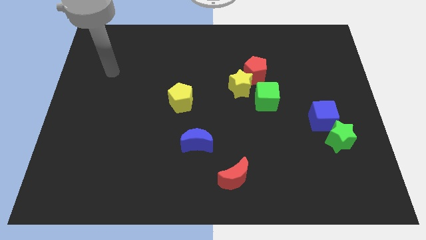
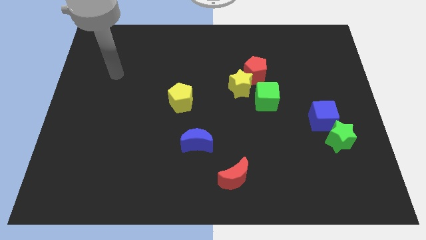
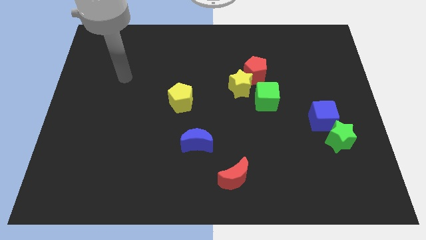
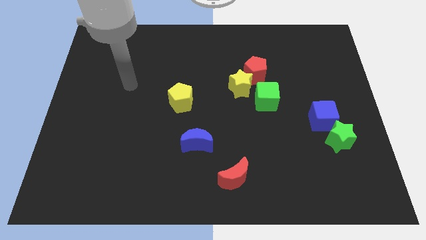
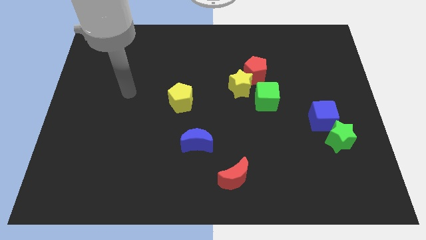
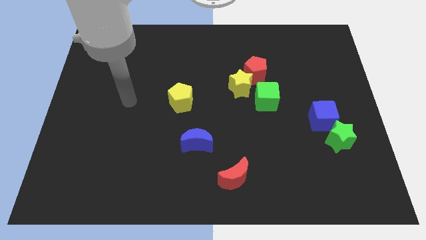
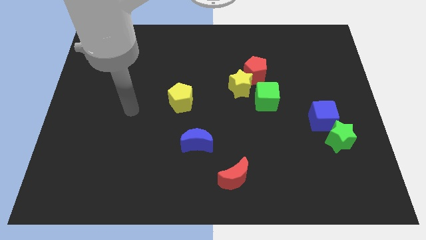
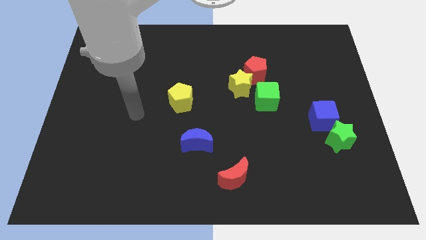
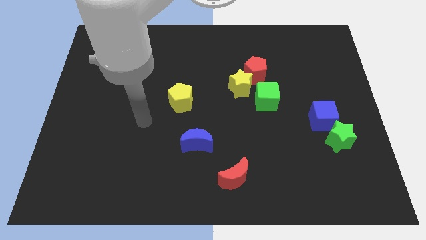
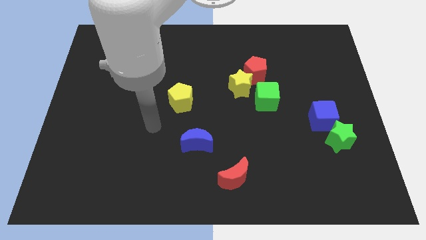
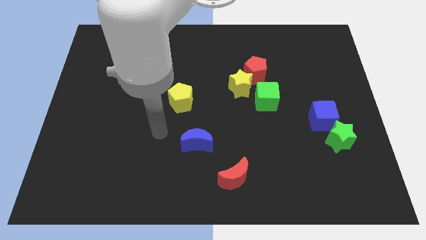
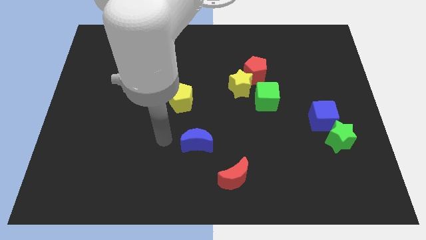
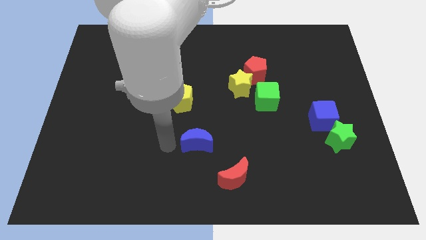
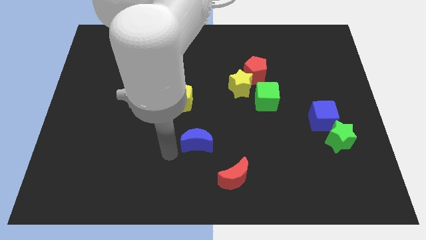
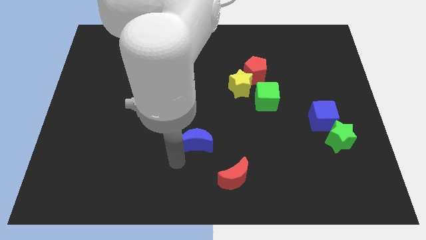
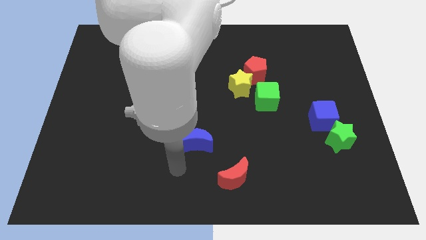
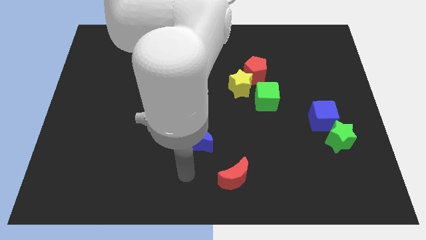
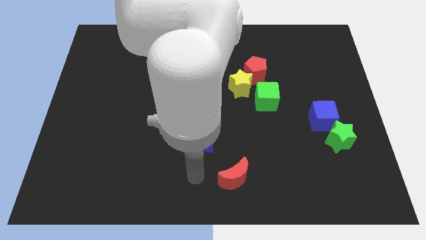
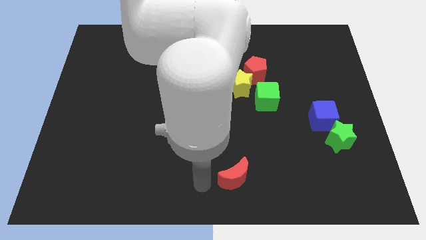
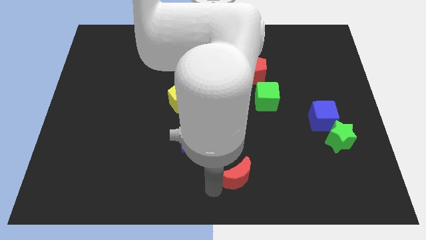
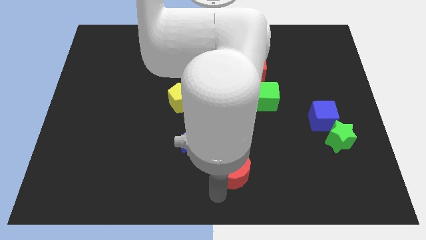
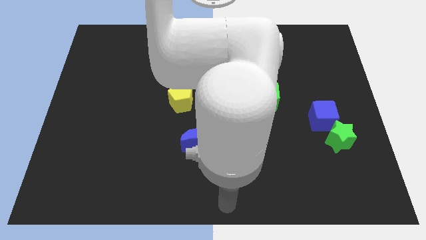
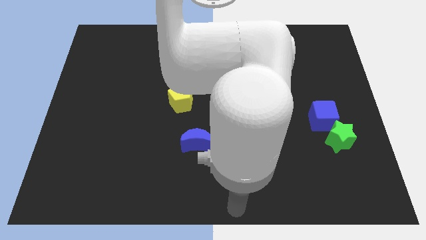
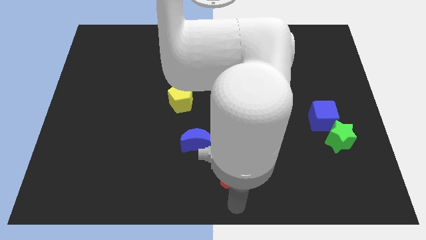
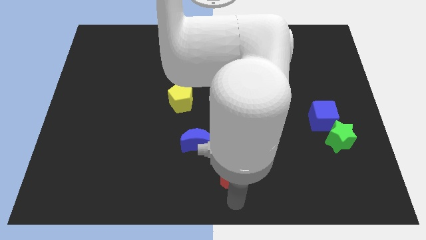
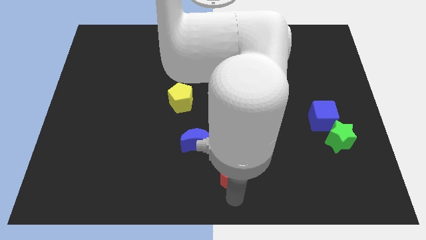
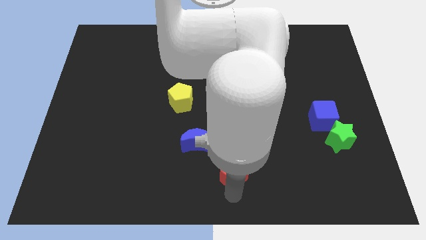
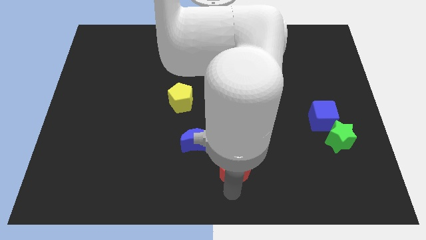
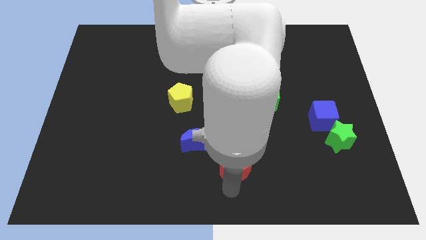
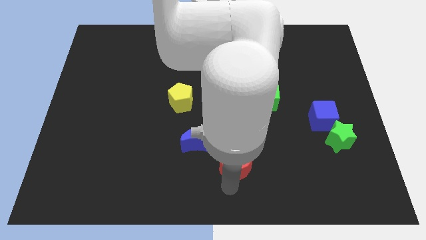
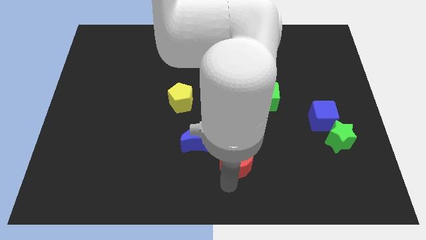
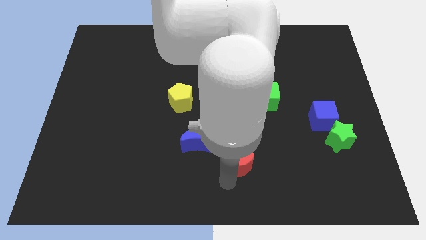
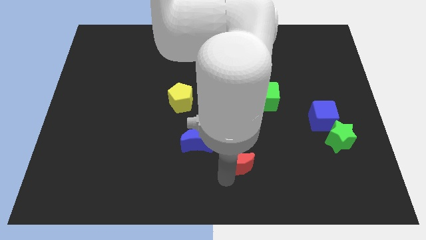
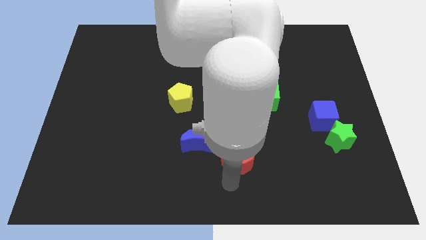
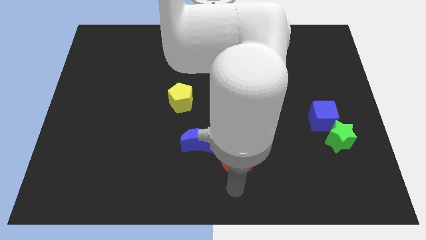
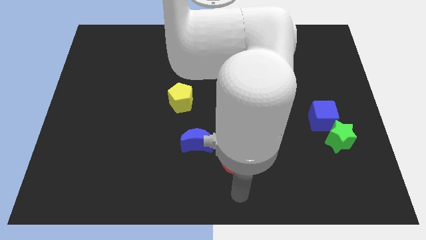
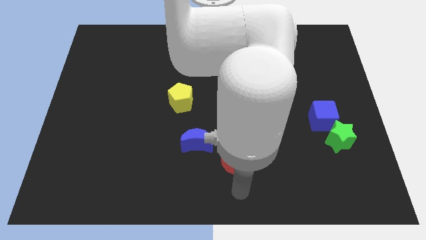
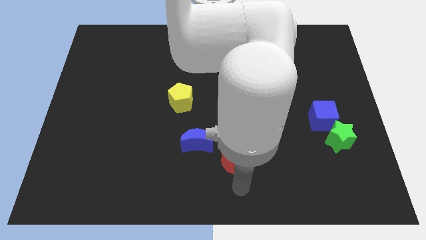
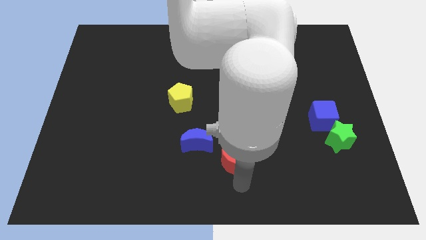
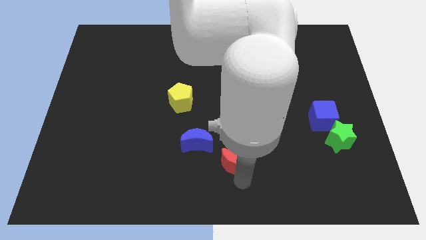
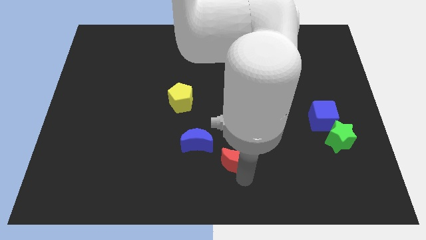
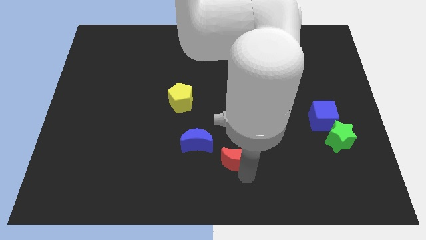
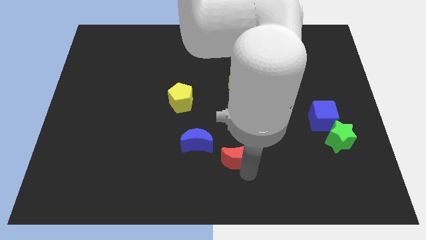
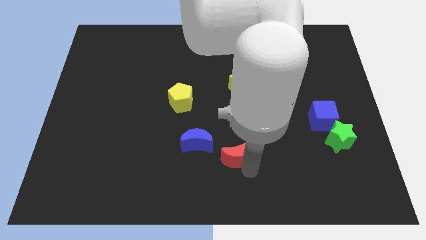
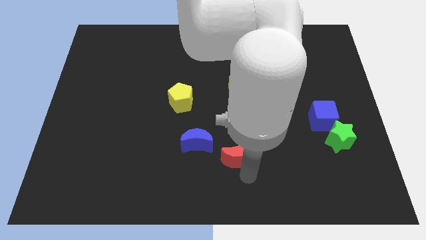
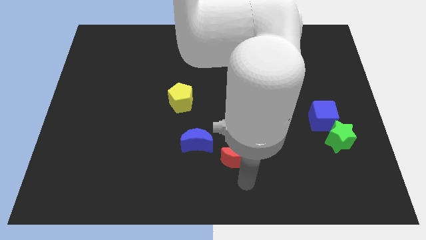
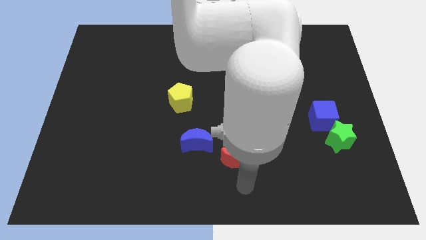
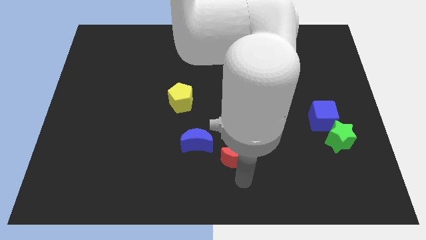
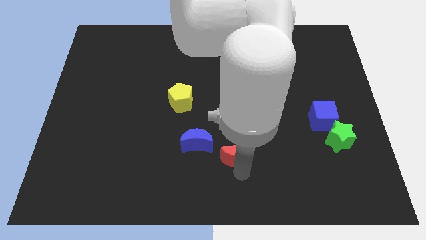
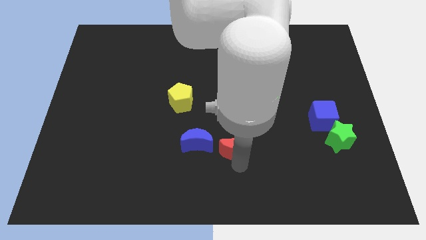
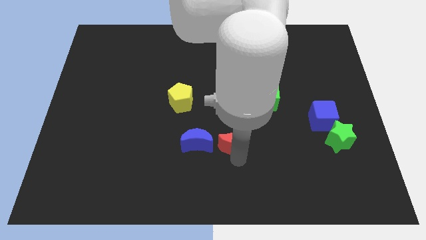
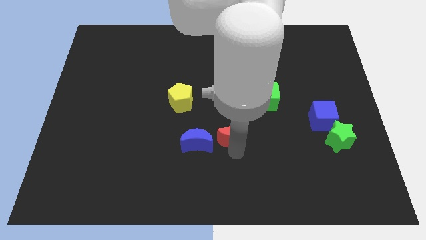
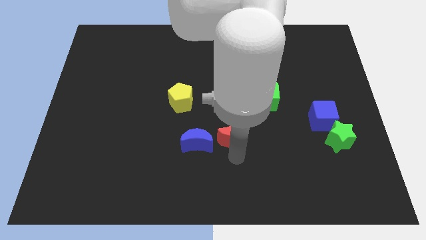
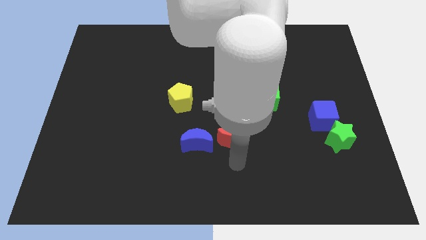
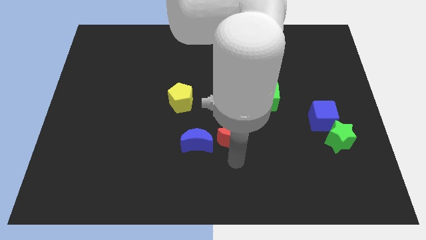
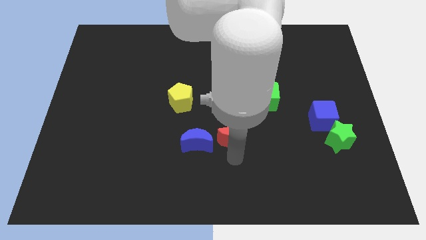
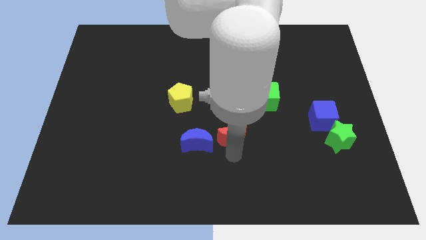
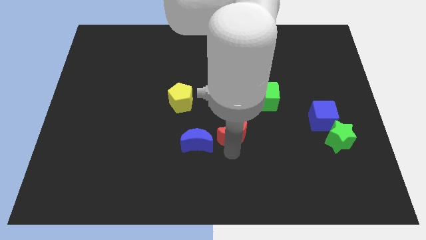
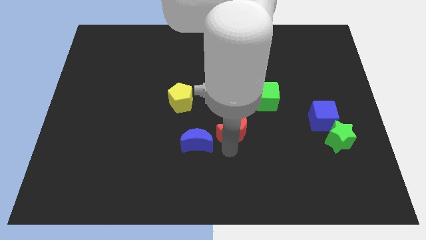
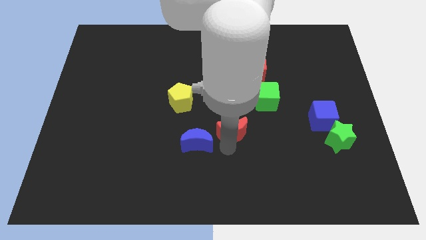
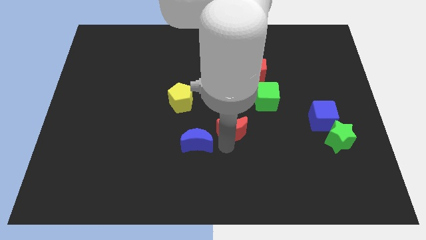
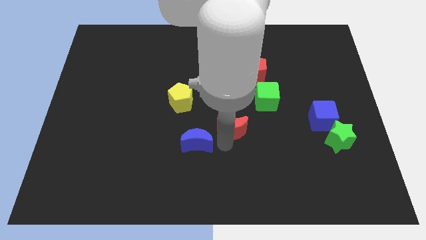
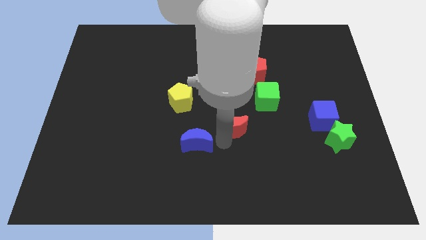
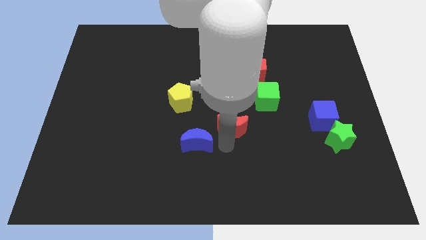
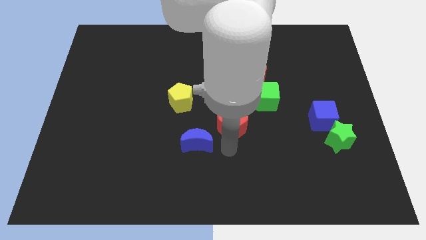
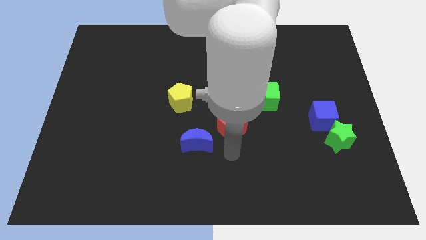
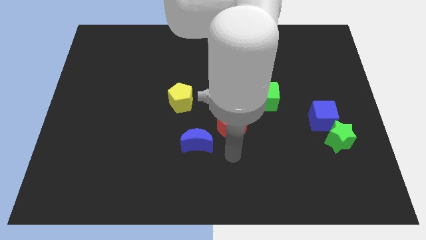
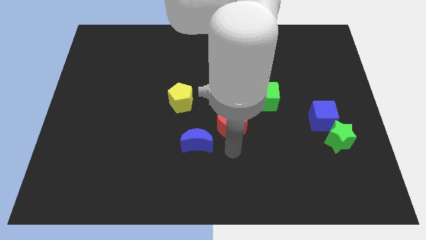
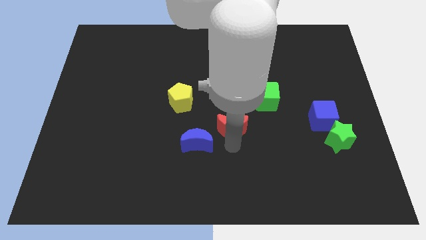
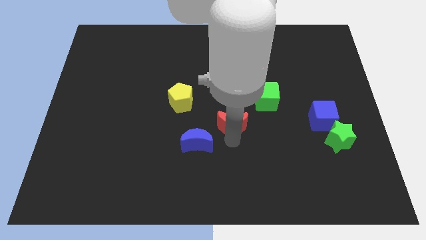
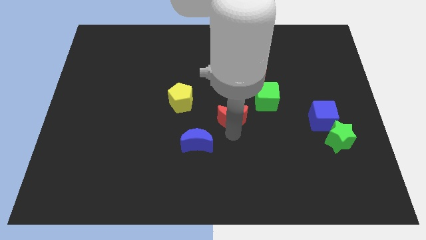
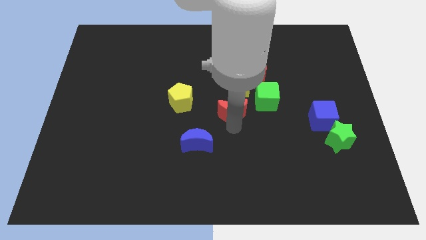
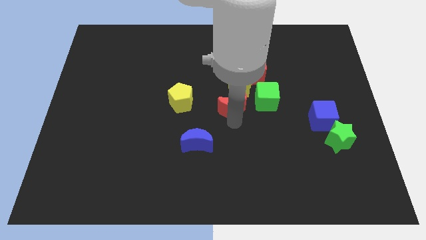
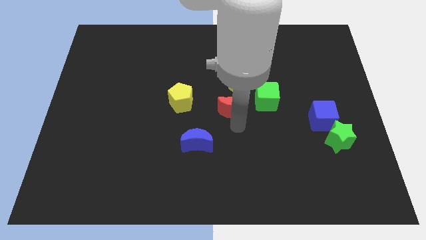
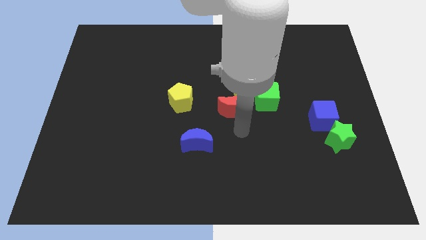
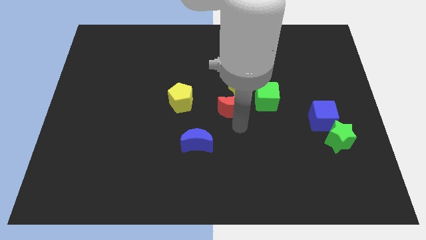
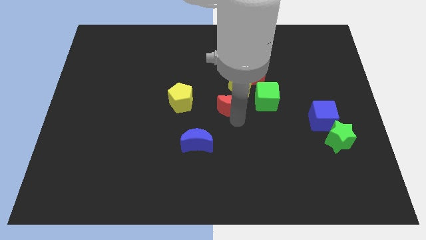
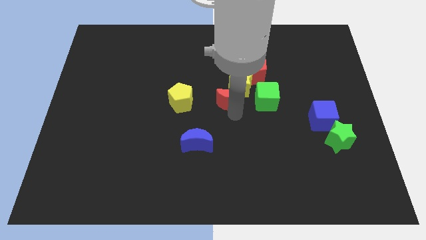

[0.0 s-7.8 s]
push the red moon up

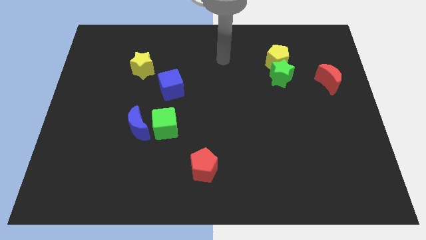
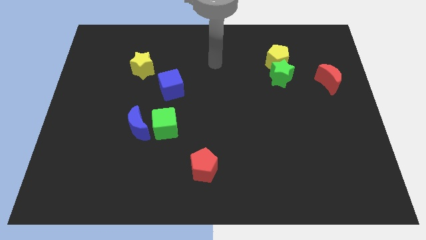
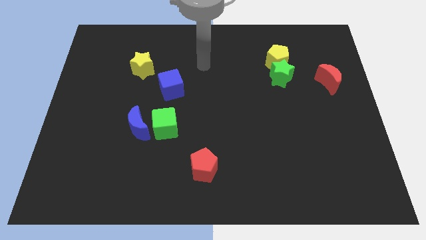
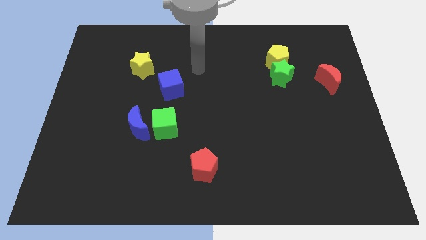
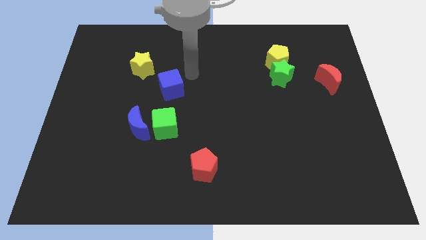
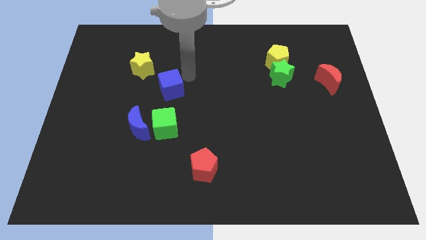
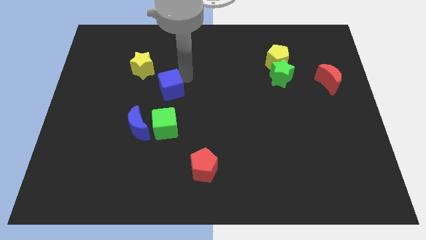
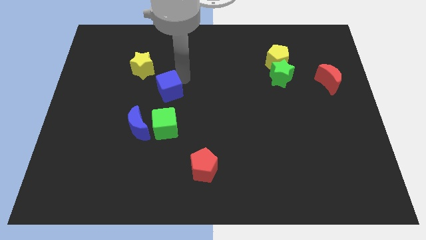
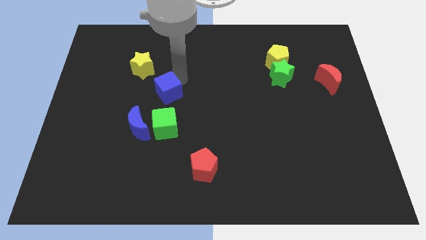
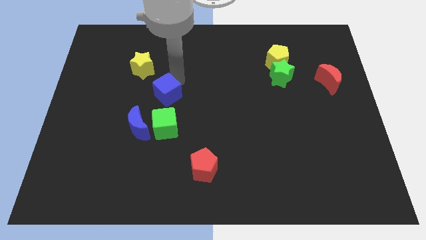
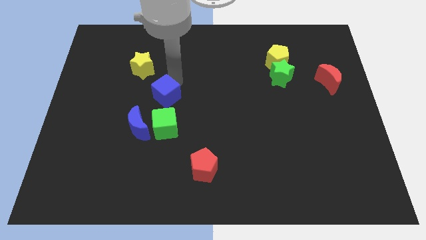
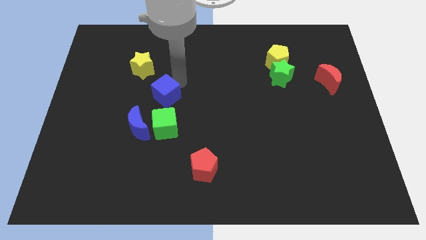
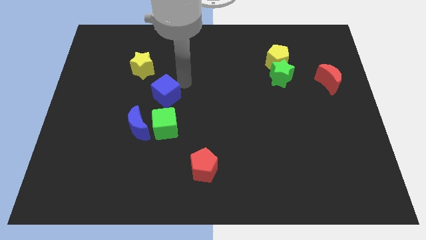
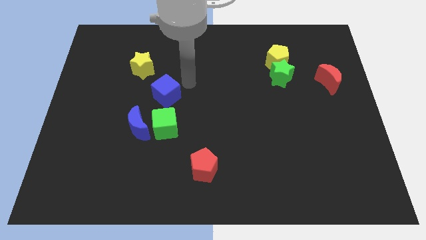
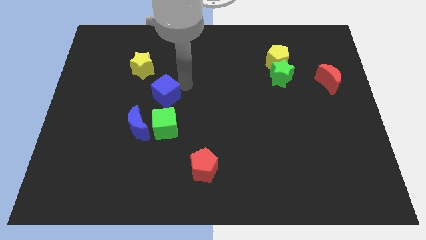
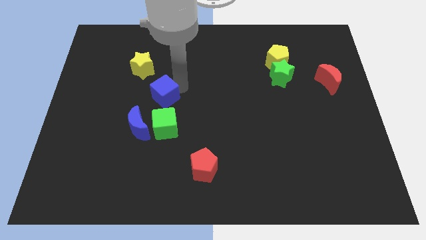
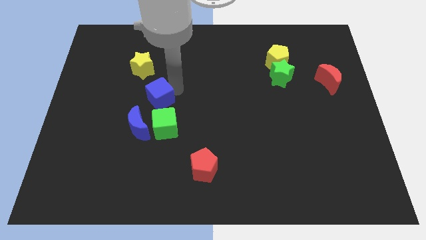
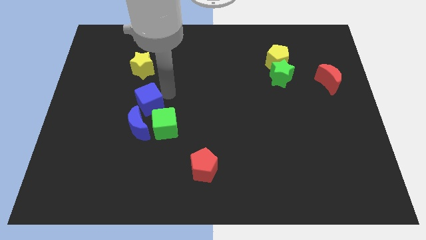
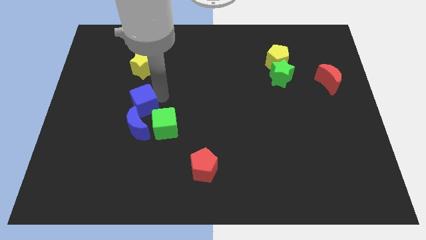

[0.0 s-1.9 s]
slide the blue cube somewhat diagonally downwards and left
